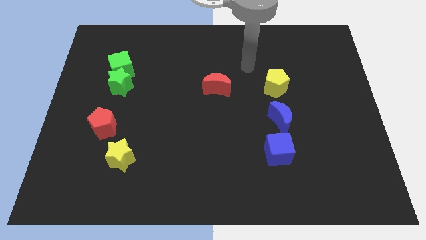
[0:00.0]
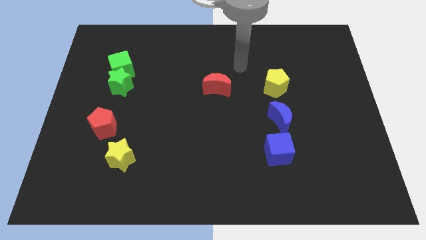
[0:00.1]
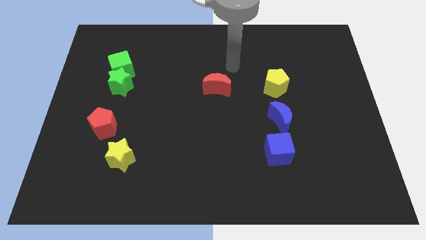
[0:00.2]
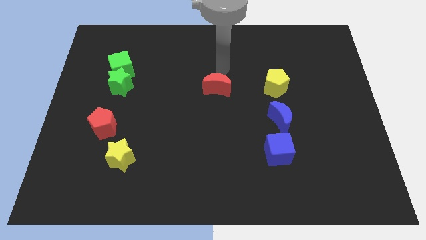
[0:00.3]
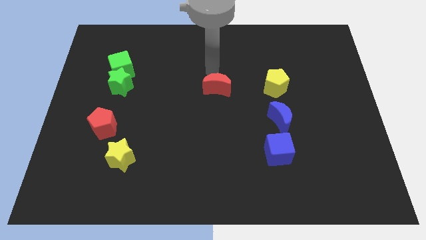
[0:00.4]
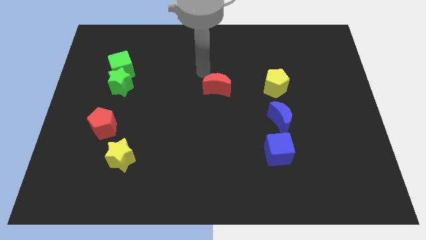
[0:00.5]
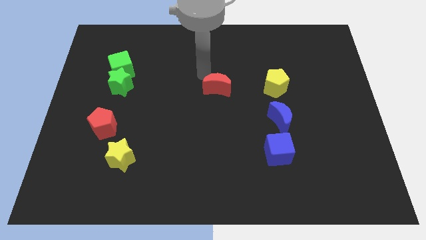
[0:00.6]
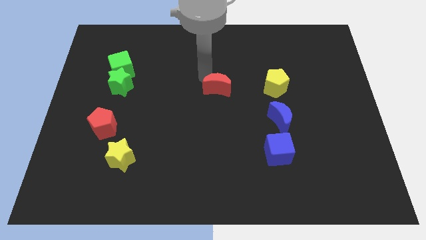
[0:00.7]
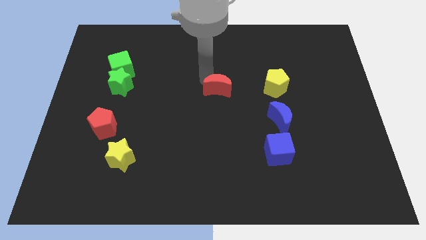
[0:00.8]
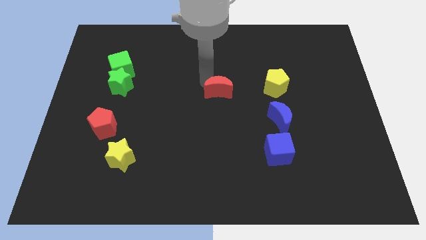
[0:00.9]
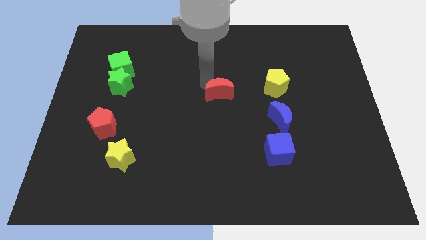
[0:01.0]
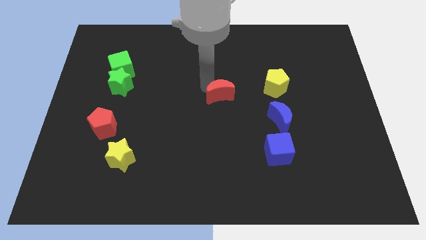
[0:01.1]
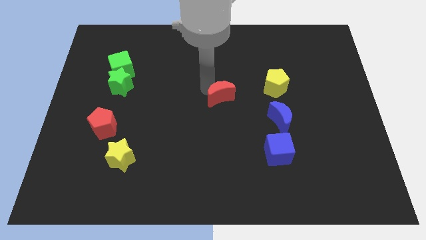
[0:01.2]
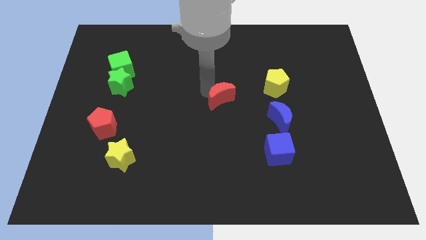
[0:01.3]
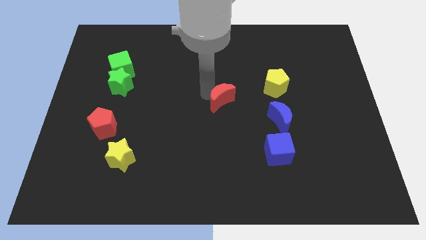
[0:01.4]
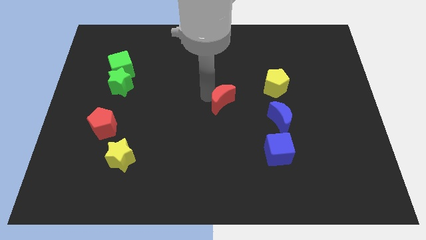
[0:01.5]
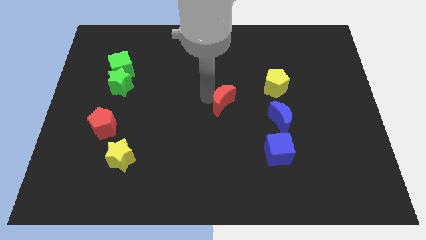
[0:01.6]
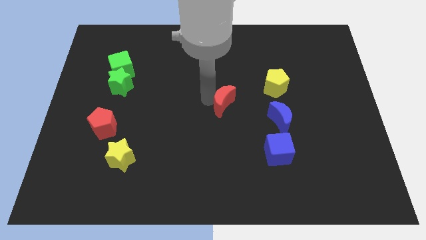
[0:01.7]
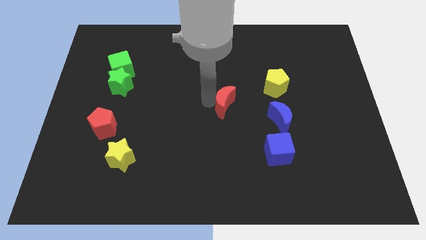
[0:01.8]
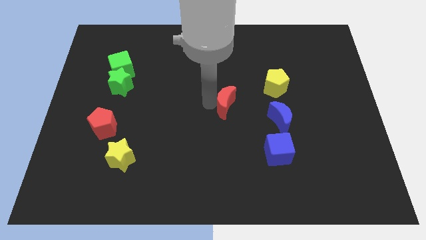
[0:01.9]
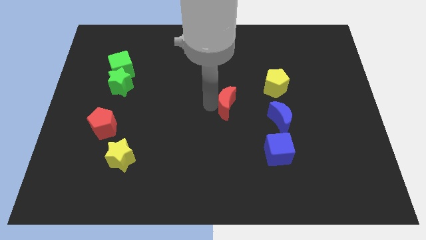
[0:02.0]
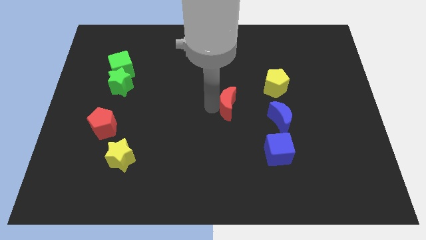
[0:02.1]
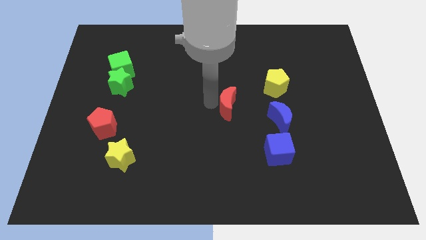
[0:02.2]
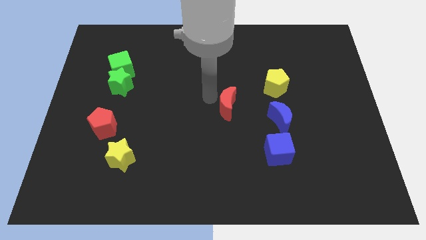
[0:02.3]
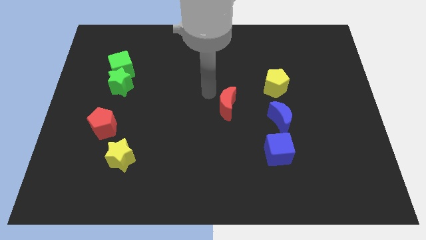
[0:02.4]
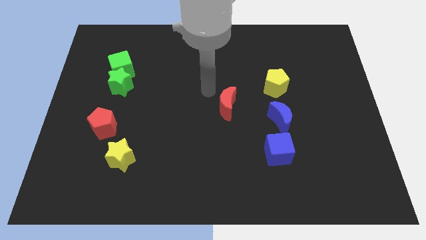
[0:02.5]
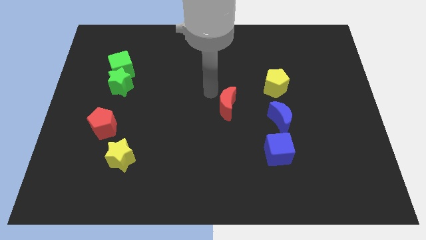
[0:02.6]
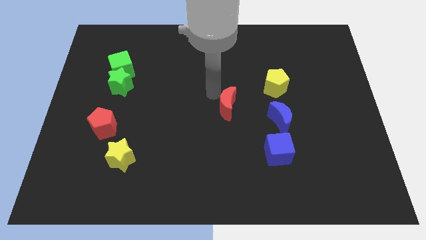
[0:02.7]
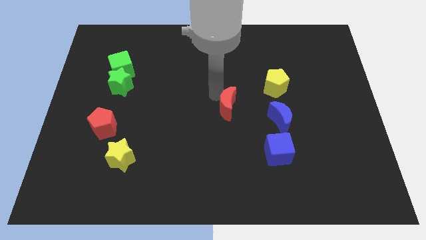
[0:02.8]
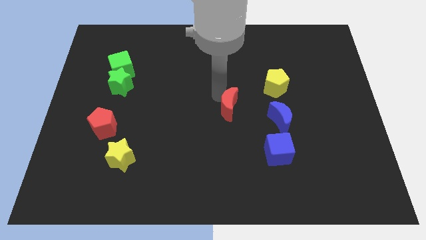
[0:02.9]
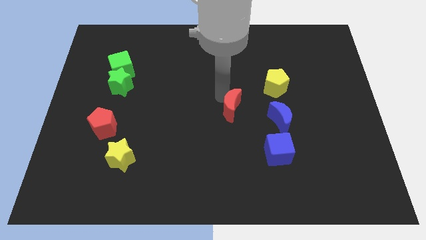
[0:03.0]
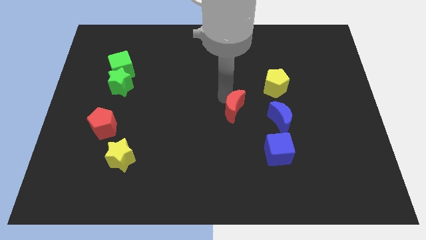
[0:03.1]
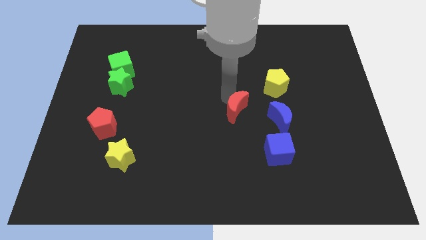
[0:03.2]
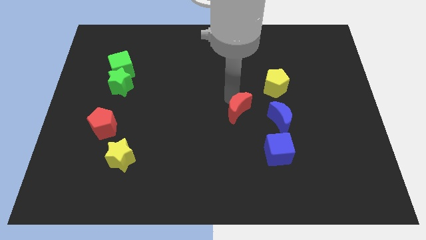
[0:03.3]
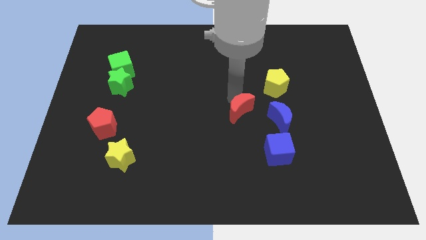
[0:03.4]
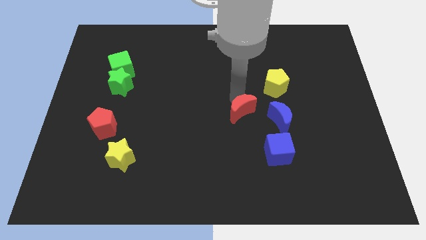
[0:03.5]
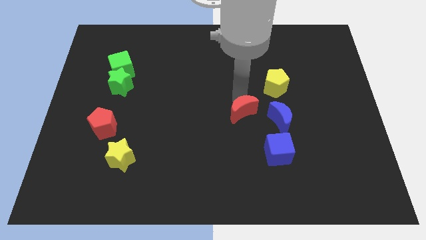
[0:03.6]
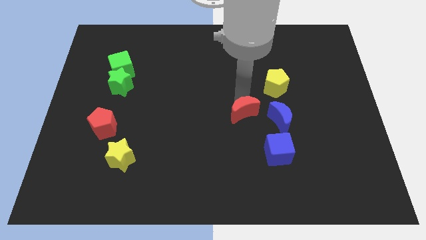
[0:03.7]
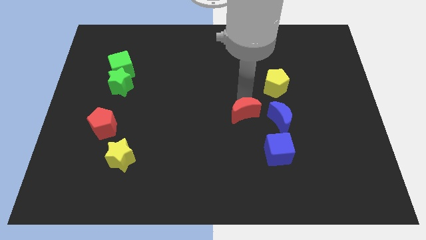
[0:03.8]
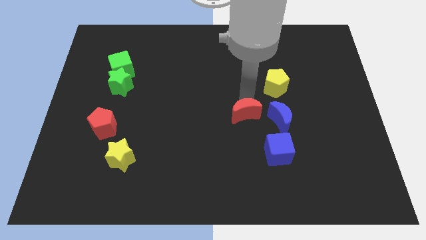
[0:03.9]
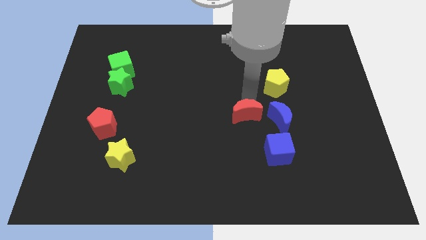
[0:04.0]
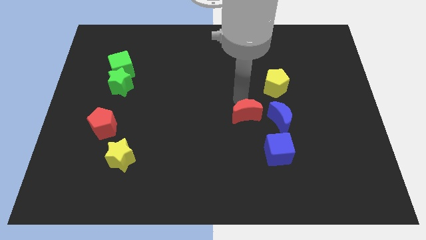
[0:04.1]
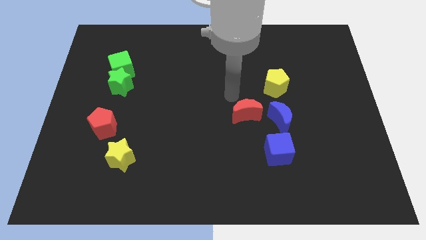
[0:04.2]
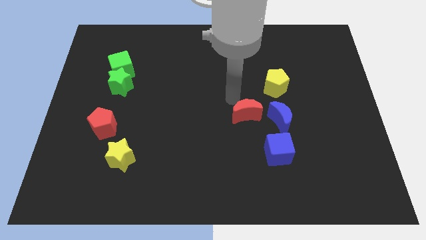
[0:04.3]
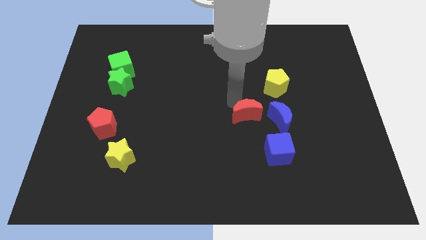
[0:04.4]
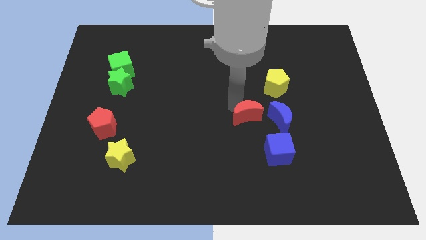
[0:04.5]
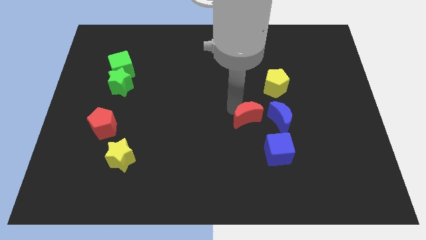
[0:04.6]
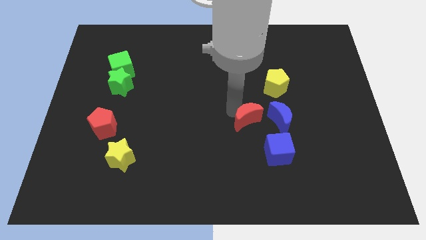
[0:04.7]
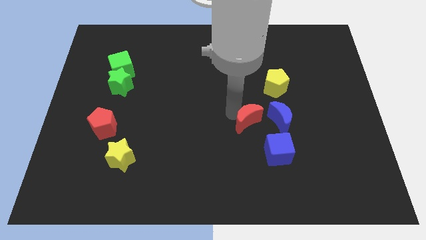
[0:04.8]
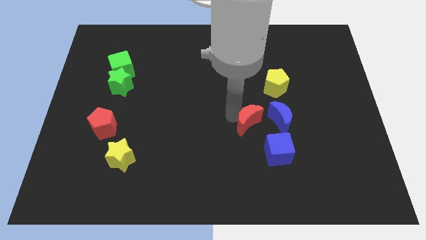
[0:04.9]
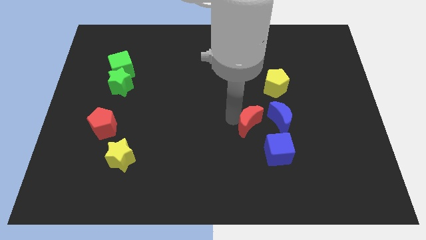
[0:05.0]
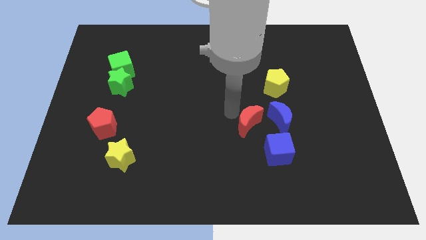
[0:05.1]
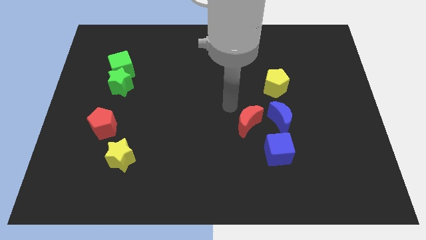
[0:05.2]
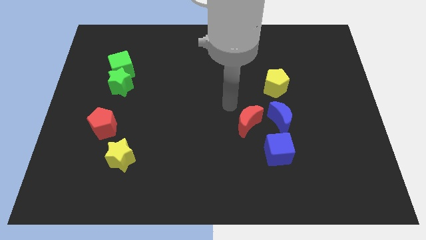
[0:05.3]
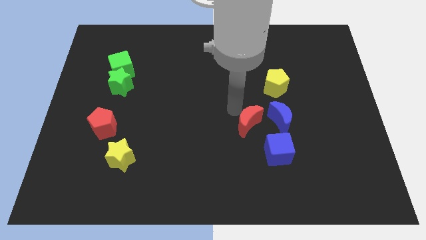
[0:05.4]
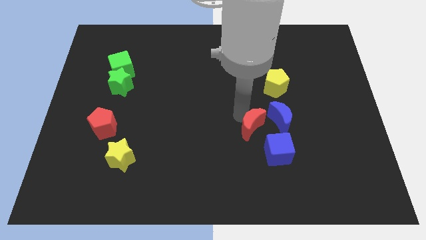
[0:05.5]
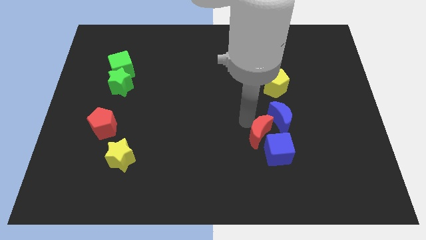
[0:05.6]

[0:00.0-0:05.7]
put the red moon to the blue cube

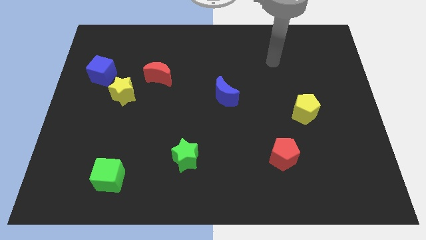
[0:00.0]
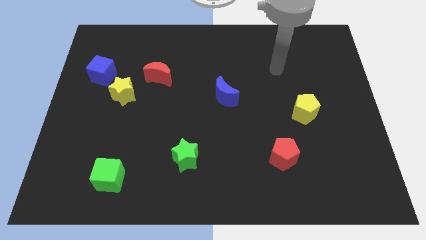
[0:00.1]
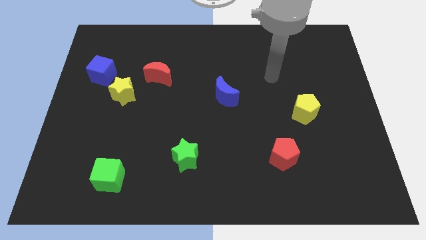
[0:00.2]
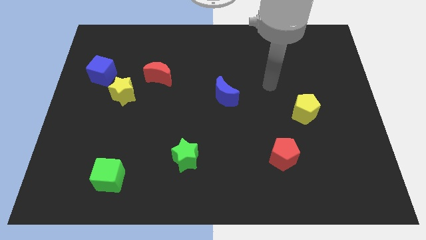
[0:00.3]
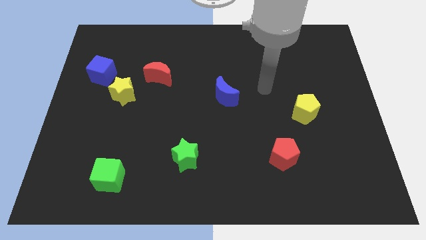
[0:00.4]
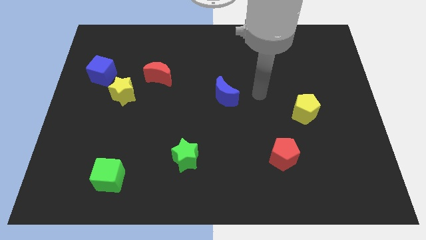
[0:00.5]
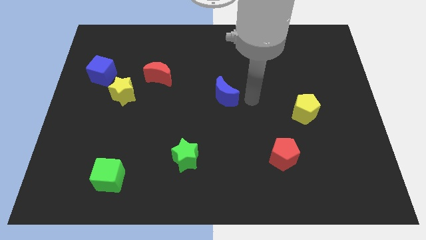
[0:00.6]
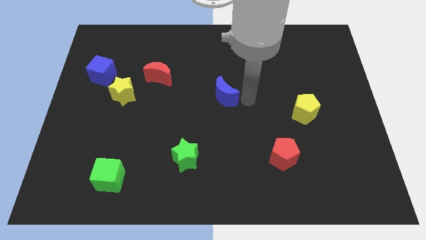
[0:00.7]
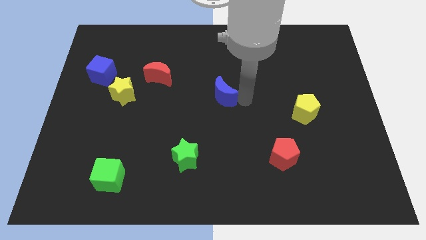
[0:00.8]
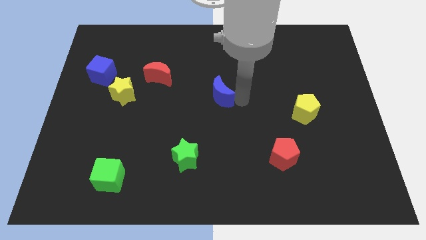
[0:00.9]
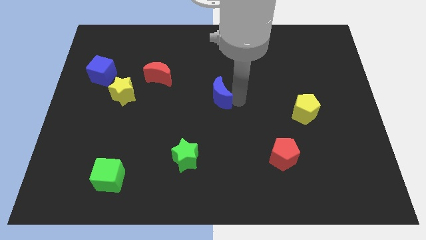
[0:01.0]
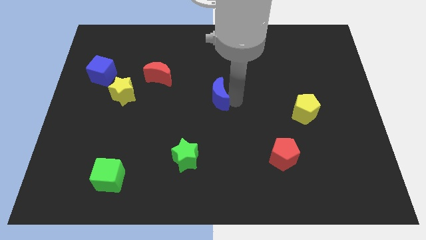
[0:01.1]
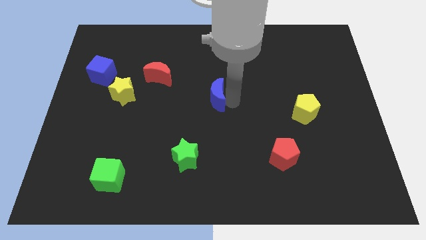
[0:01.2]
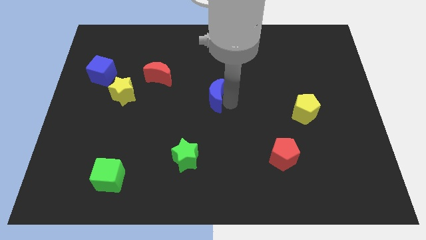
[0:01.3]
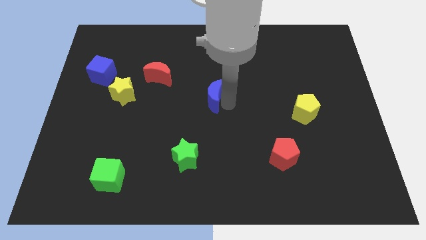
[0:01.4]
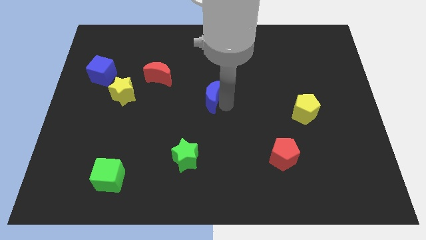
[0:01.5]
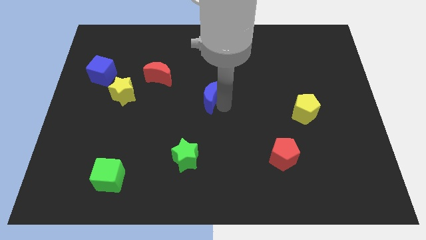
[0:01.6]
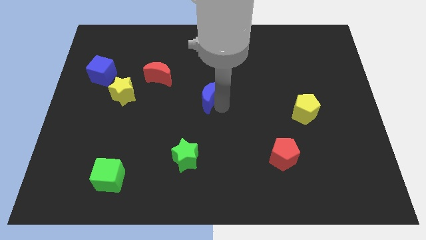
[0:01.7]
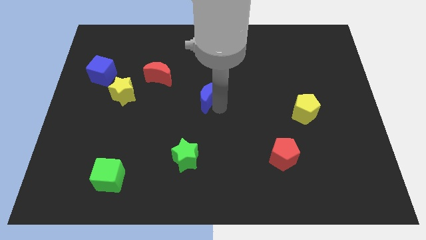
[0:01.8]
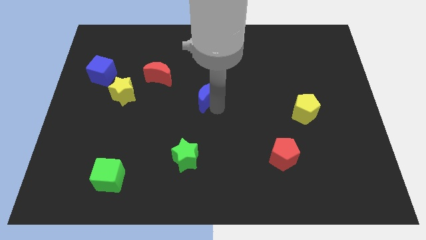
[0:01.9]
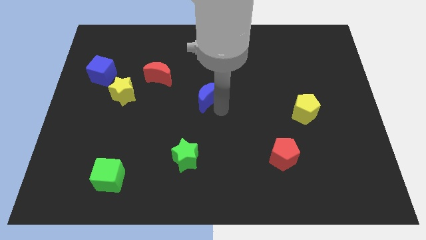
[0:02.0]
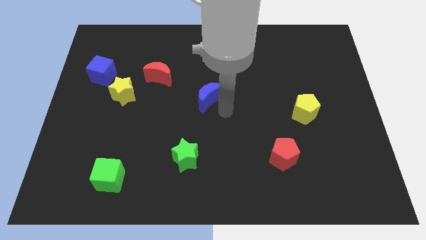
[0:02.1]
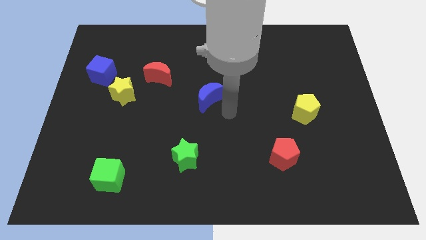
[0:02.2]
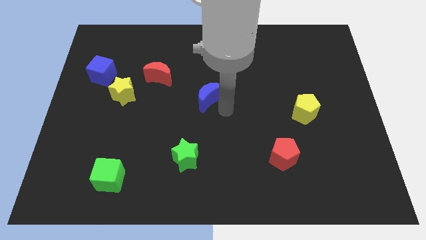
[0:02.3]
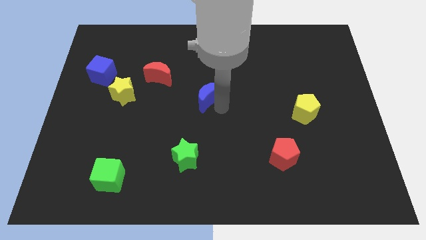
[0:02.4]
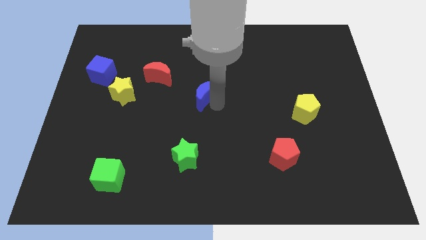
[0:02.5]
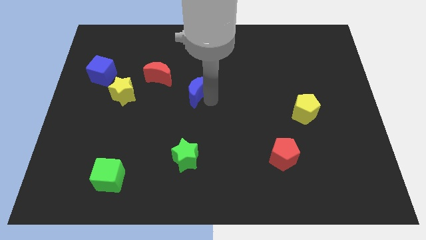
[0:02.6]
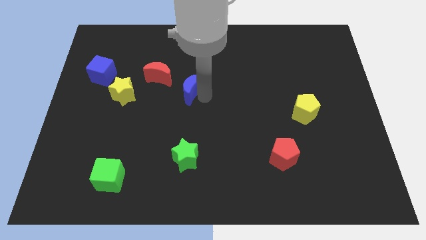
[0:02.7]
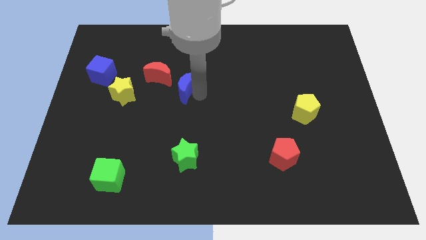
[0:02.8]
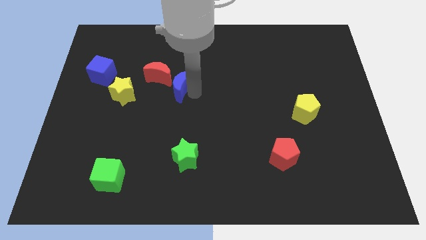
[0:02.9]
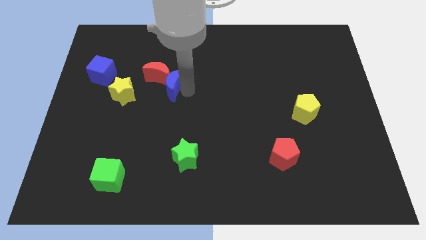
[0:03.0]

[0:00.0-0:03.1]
push the blue moon to the red moon
